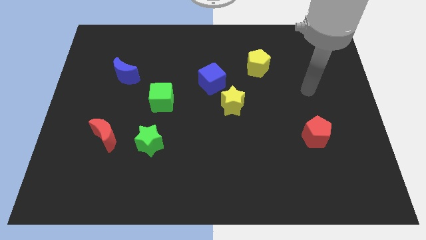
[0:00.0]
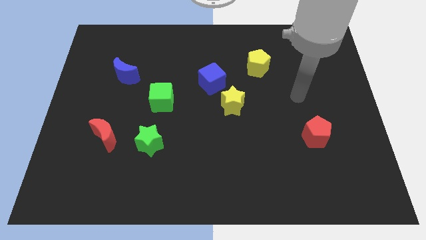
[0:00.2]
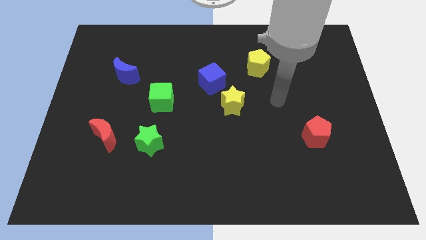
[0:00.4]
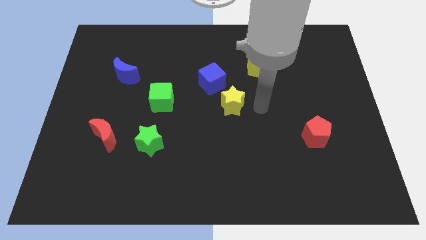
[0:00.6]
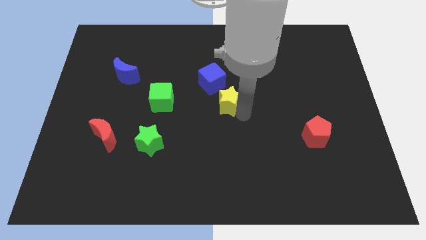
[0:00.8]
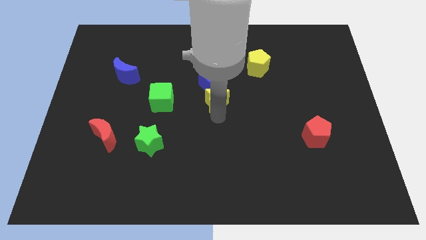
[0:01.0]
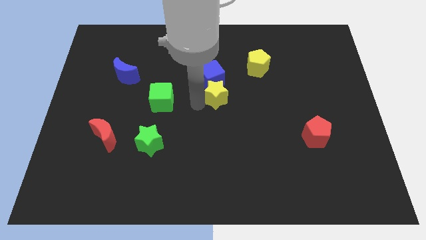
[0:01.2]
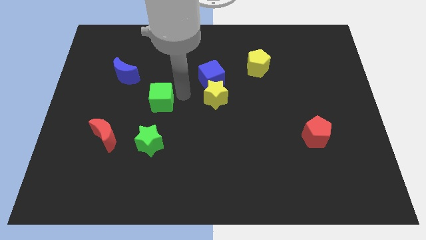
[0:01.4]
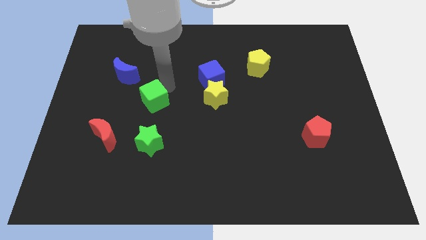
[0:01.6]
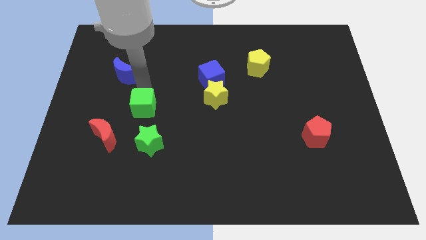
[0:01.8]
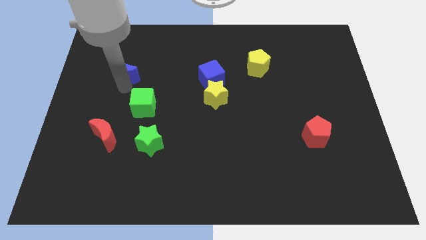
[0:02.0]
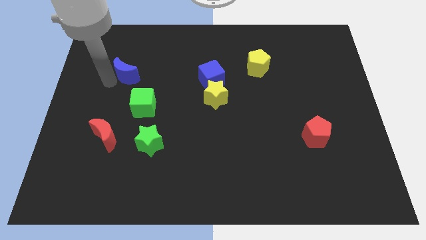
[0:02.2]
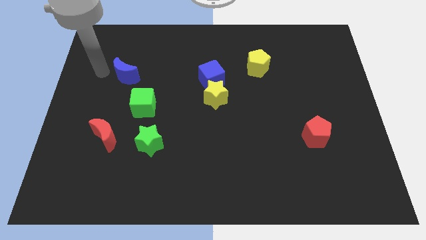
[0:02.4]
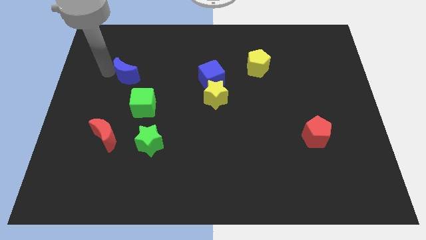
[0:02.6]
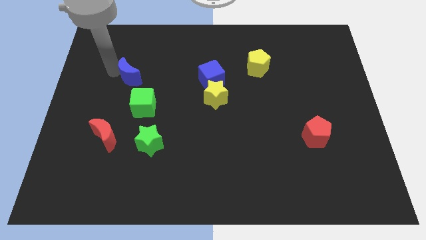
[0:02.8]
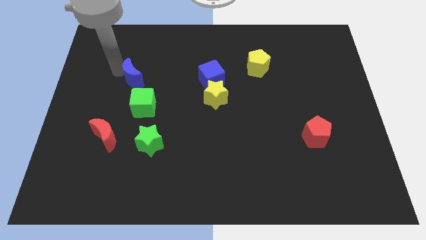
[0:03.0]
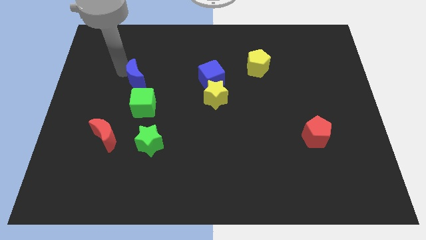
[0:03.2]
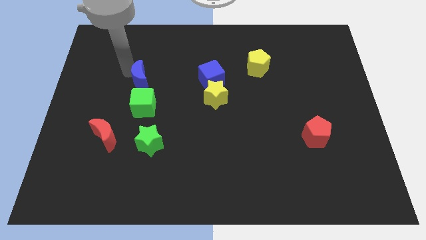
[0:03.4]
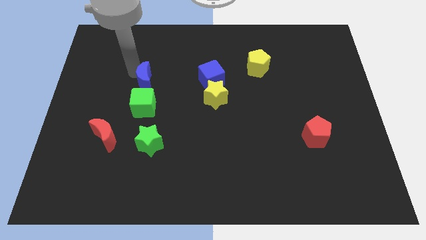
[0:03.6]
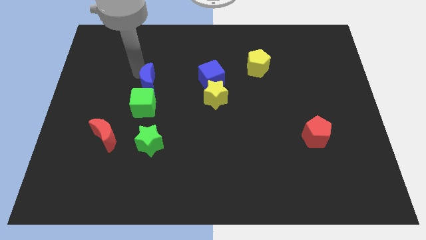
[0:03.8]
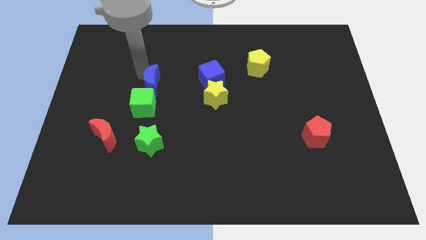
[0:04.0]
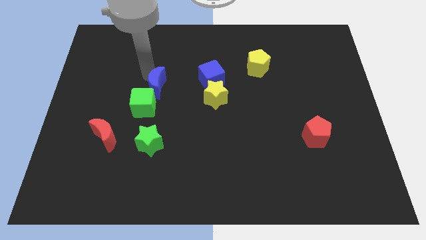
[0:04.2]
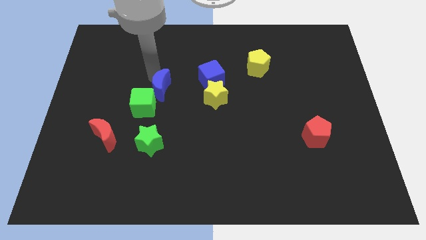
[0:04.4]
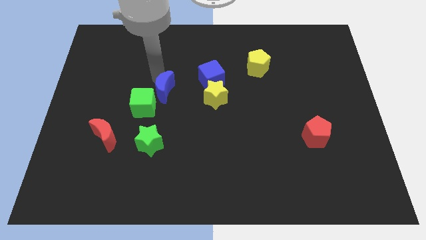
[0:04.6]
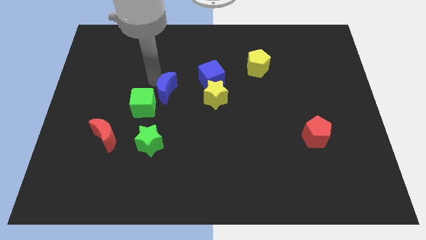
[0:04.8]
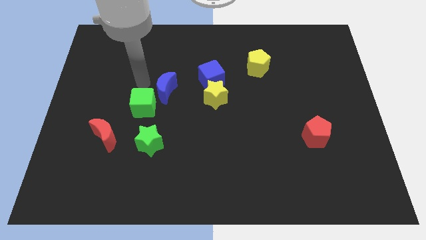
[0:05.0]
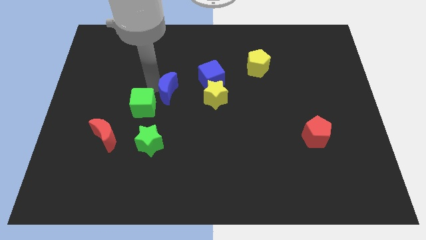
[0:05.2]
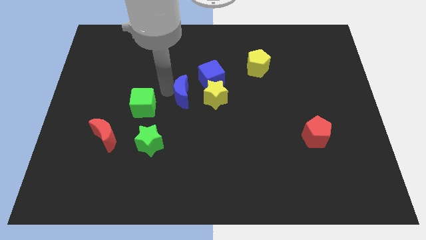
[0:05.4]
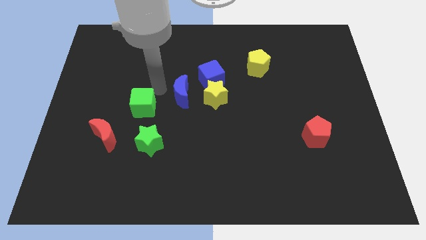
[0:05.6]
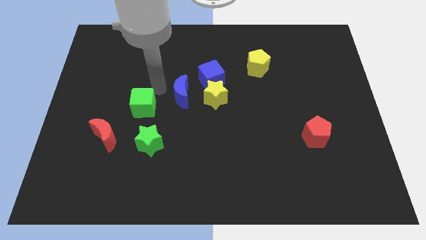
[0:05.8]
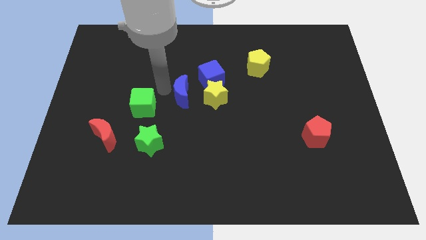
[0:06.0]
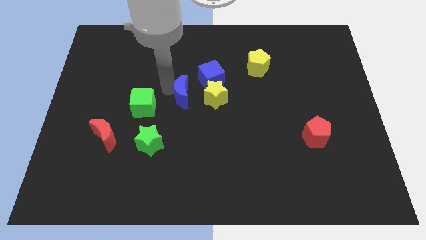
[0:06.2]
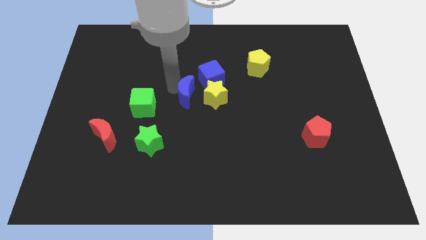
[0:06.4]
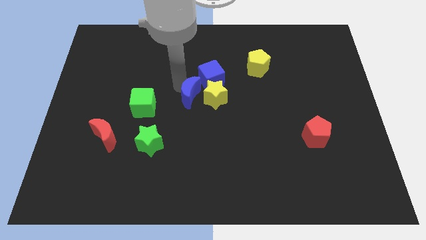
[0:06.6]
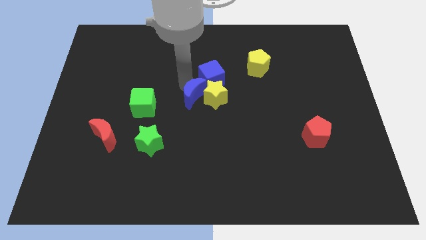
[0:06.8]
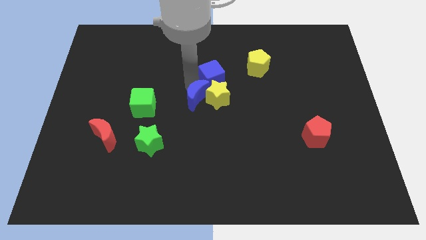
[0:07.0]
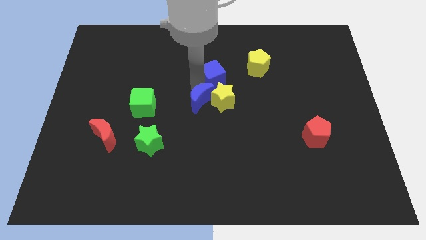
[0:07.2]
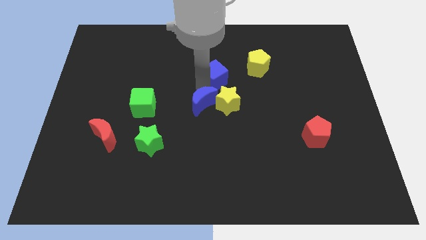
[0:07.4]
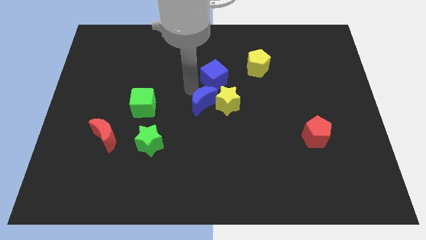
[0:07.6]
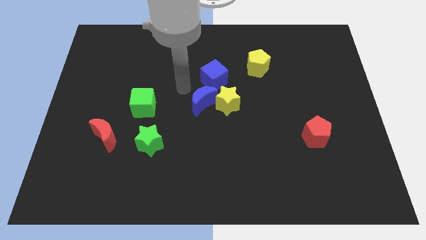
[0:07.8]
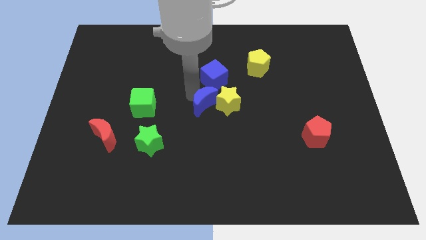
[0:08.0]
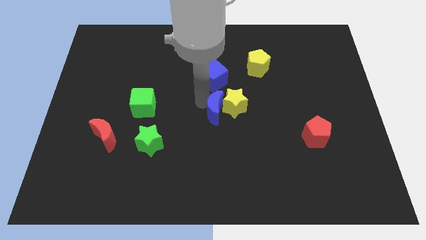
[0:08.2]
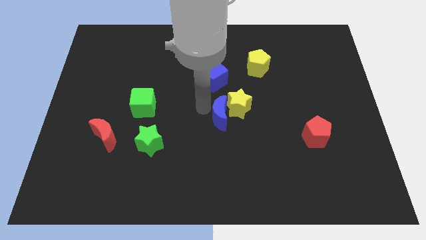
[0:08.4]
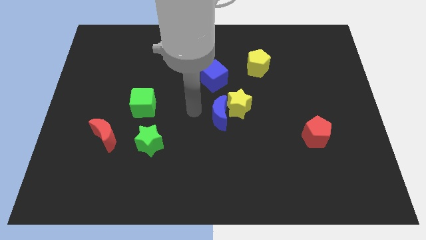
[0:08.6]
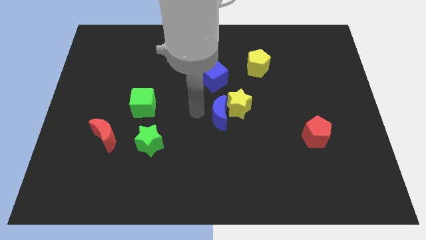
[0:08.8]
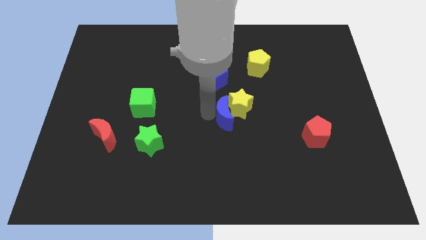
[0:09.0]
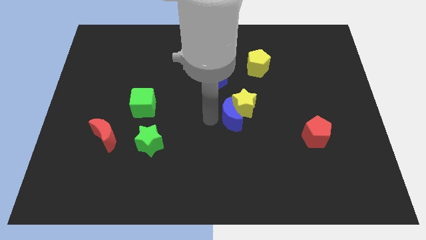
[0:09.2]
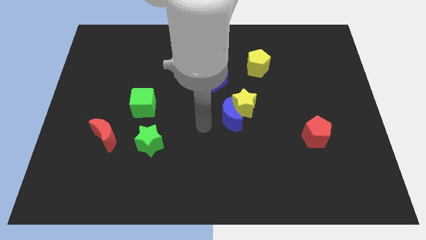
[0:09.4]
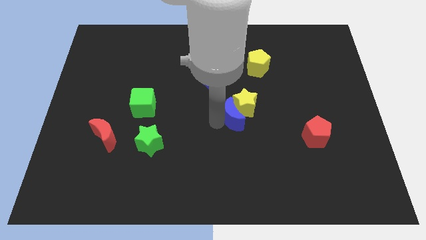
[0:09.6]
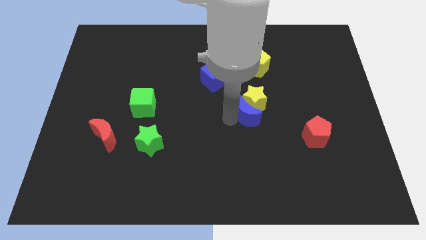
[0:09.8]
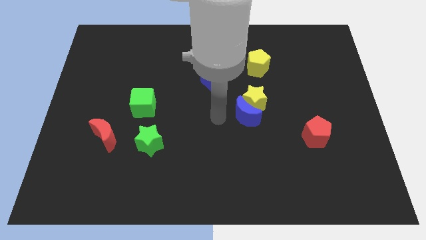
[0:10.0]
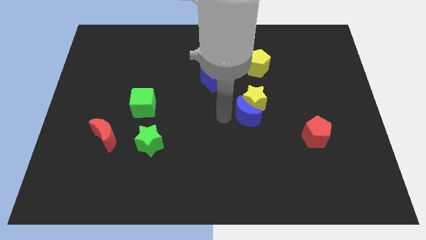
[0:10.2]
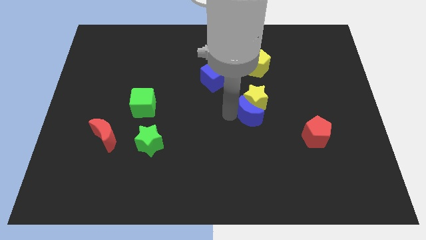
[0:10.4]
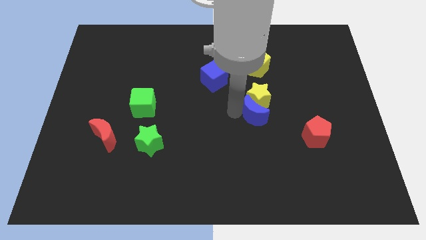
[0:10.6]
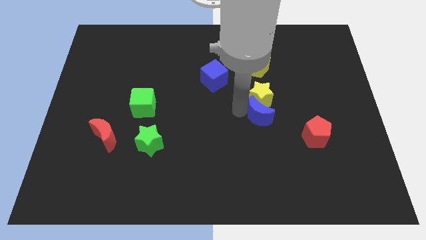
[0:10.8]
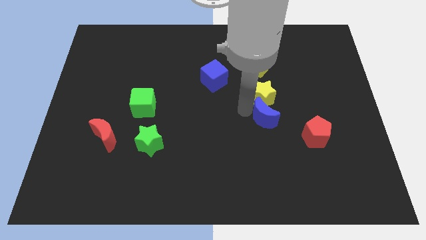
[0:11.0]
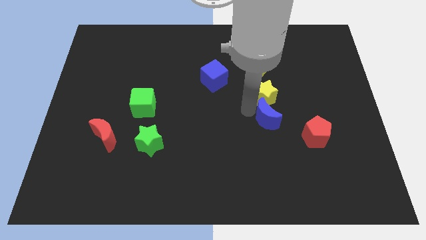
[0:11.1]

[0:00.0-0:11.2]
push the blue moon to the top left side of the red pentagon

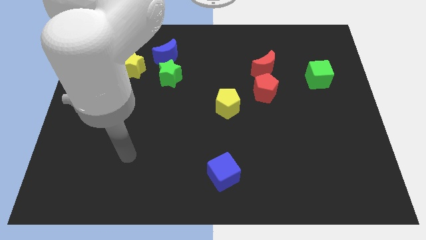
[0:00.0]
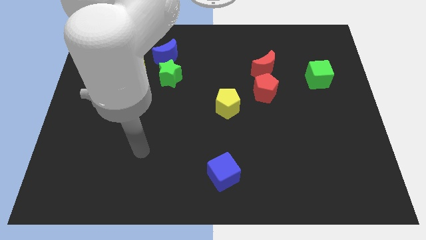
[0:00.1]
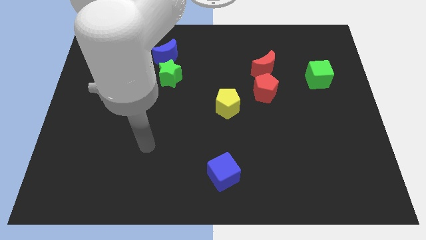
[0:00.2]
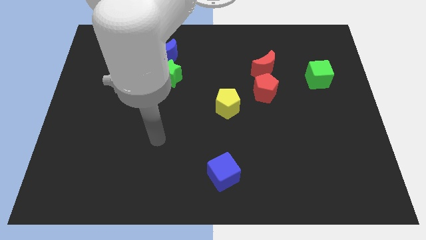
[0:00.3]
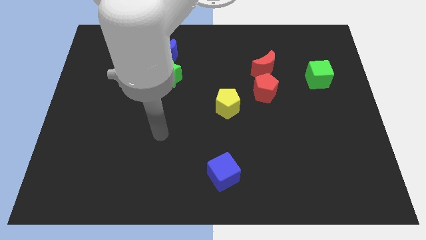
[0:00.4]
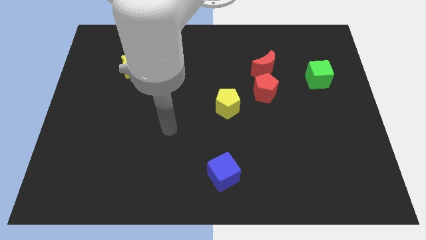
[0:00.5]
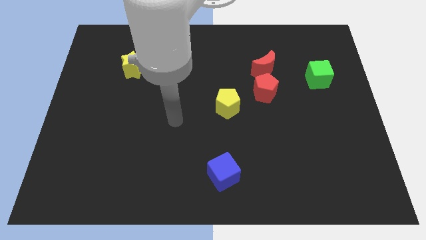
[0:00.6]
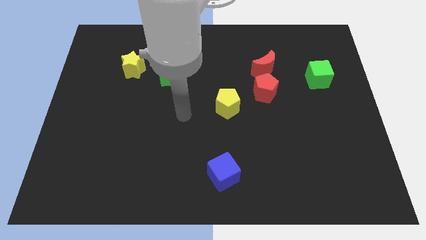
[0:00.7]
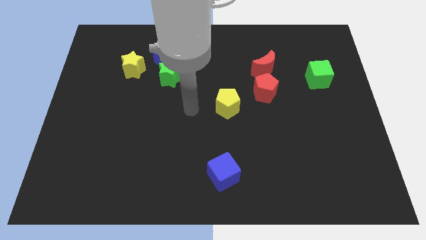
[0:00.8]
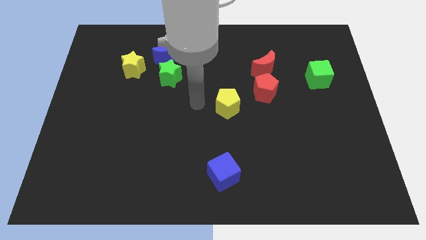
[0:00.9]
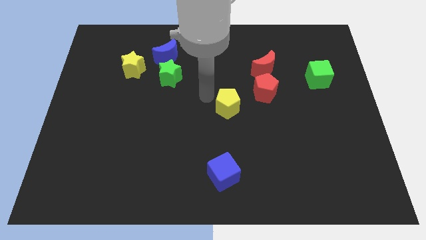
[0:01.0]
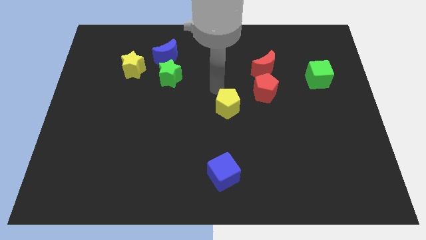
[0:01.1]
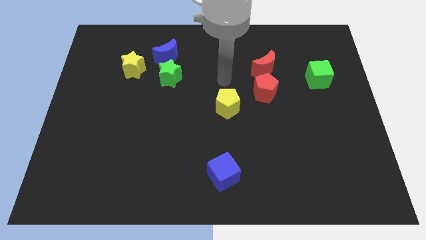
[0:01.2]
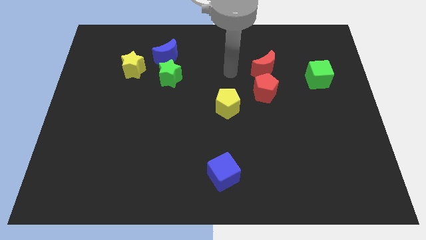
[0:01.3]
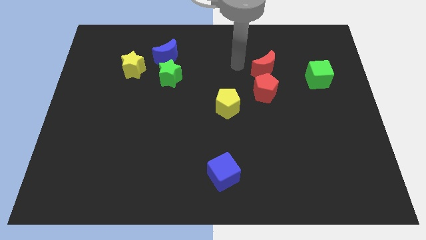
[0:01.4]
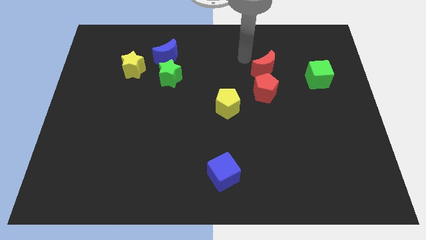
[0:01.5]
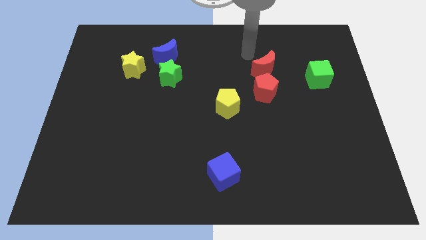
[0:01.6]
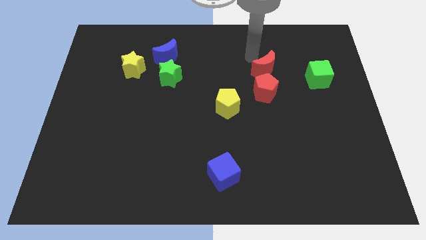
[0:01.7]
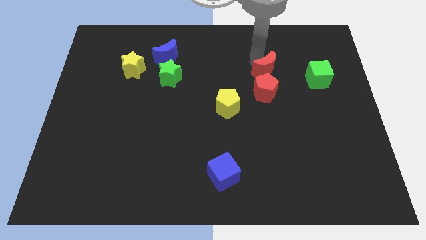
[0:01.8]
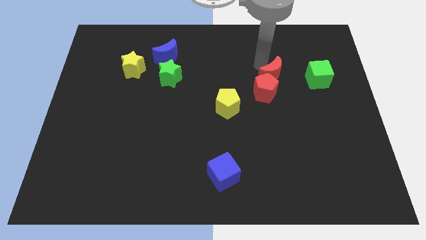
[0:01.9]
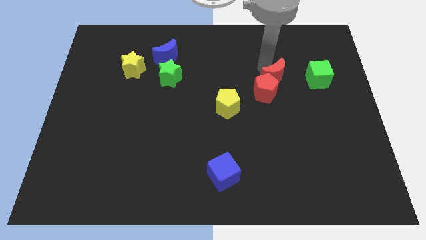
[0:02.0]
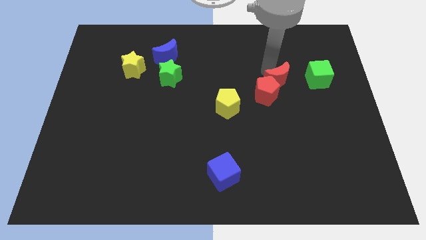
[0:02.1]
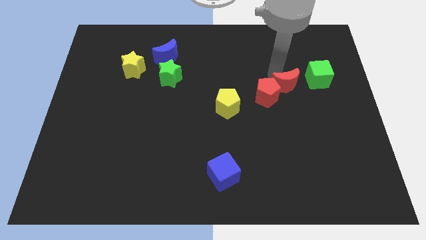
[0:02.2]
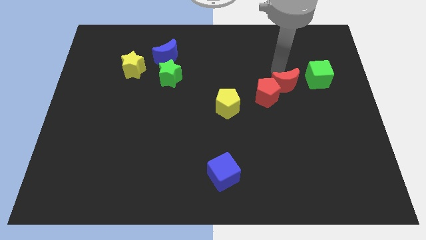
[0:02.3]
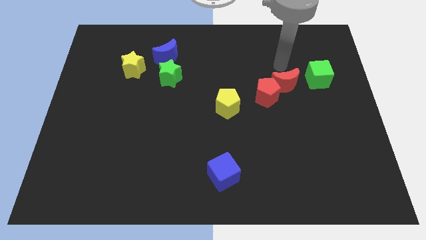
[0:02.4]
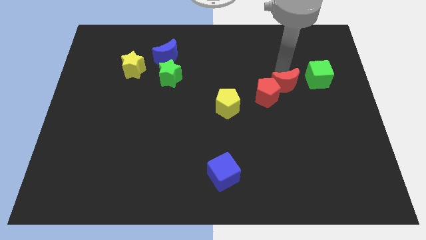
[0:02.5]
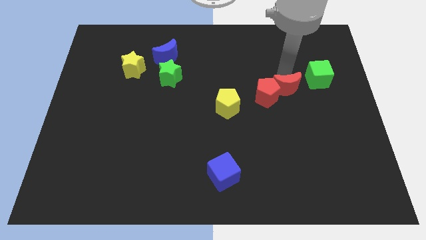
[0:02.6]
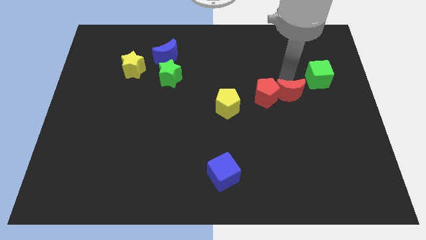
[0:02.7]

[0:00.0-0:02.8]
slide the red moon to the bottom right side of the red pentagon
